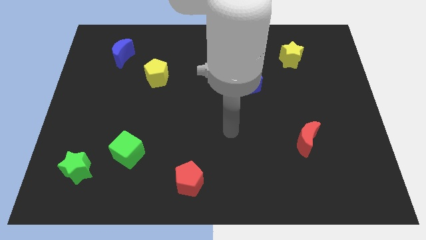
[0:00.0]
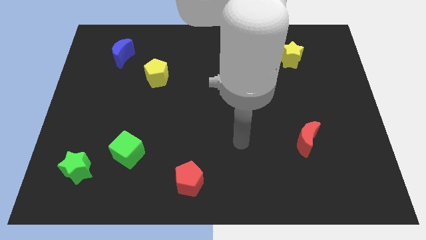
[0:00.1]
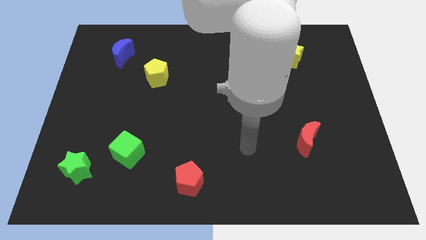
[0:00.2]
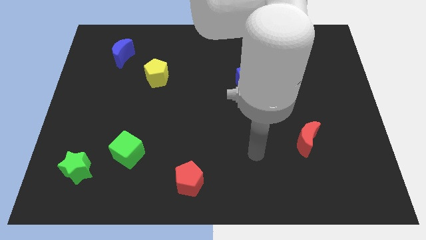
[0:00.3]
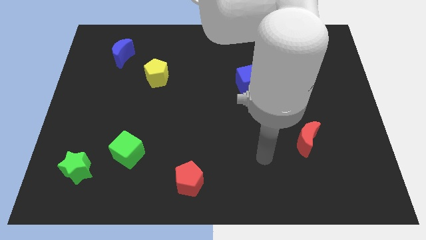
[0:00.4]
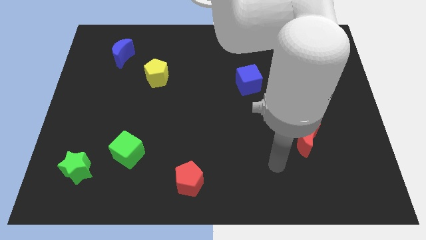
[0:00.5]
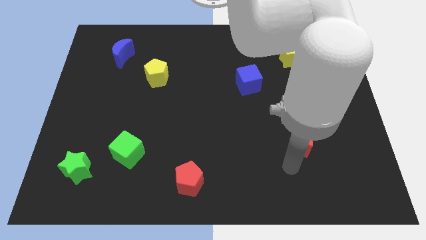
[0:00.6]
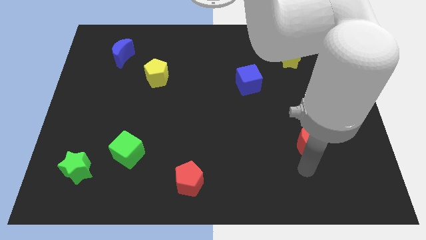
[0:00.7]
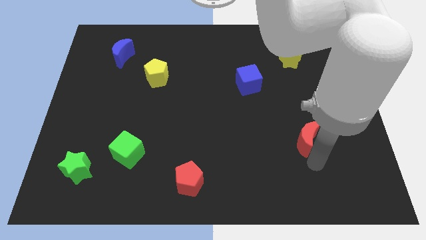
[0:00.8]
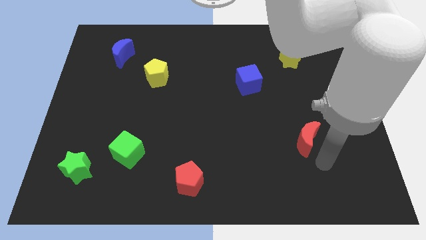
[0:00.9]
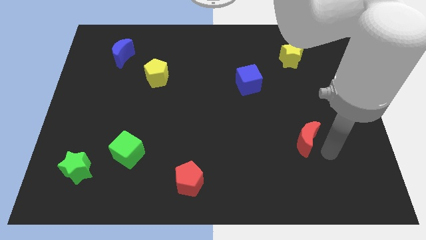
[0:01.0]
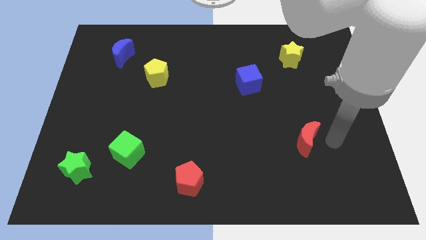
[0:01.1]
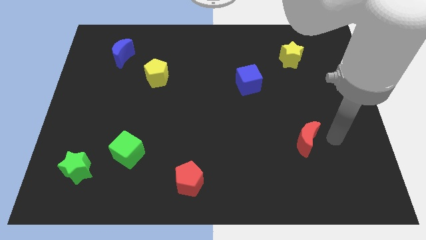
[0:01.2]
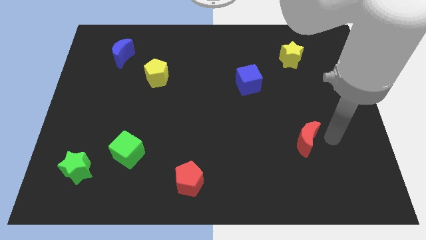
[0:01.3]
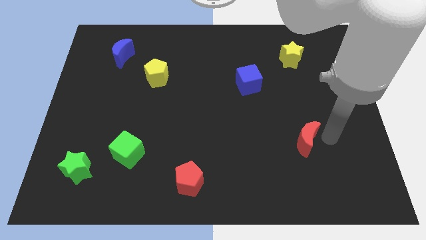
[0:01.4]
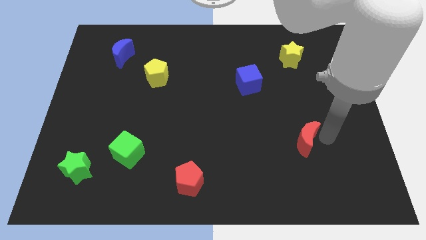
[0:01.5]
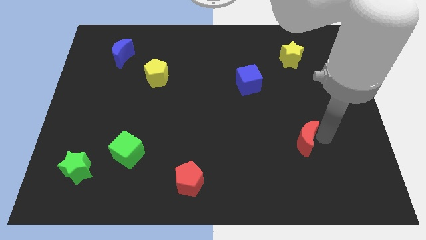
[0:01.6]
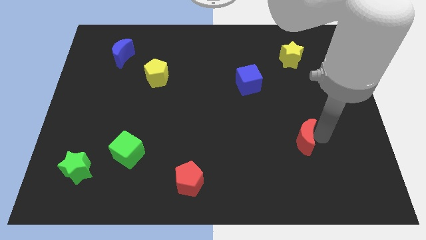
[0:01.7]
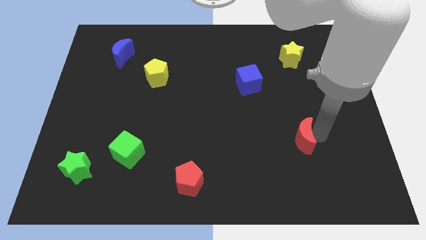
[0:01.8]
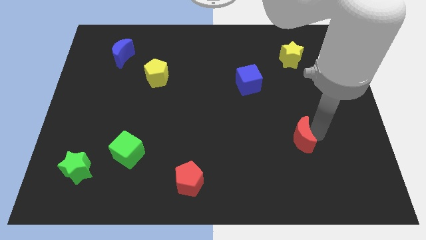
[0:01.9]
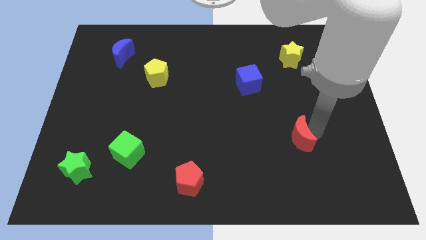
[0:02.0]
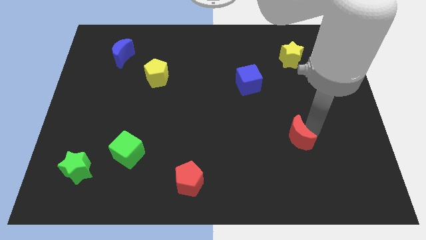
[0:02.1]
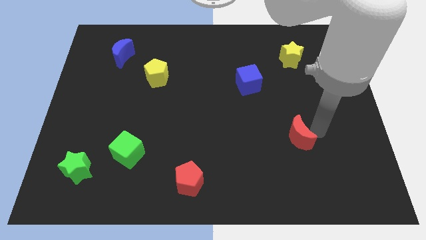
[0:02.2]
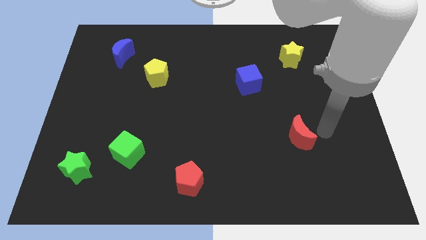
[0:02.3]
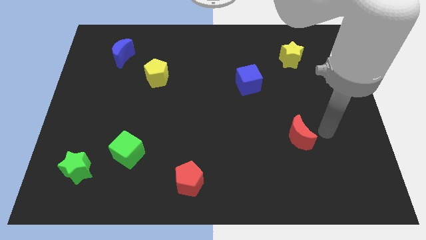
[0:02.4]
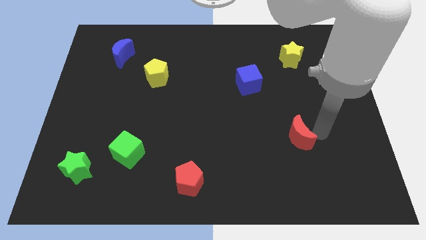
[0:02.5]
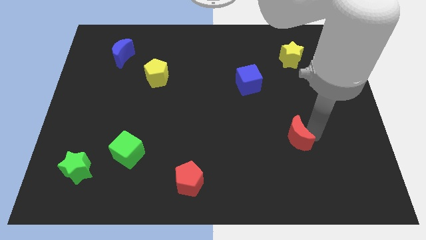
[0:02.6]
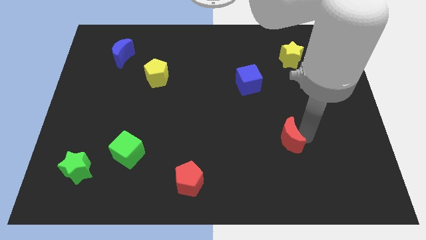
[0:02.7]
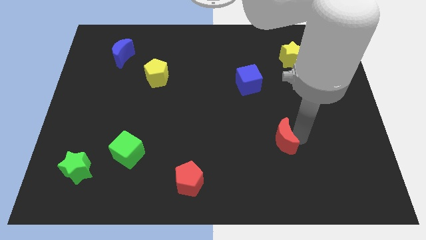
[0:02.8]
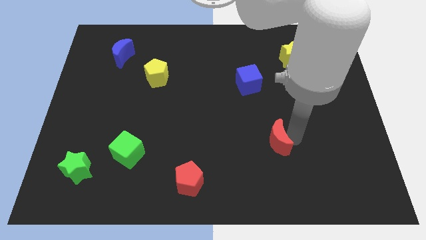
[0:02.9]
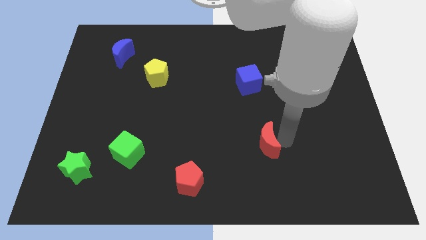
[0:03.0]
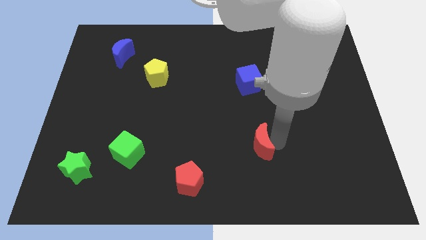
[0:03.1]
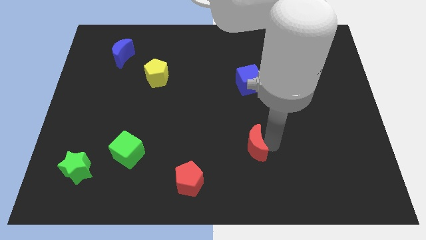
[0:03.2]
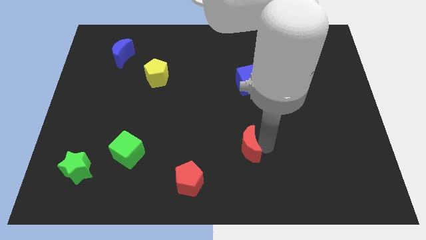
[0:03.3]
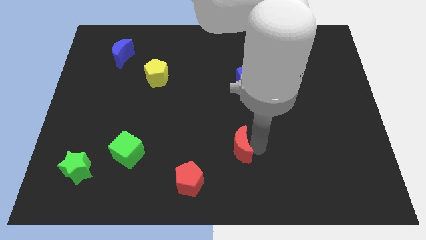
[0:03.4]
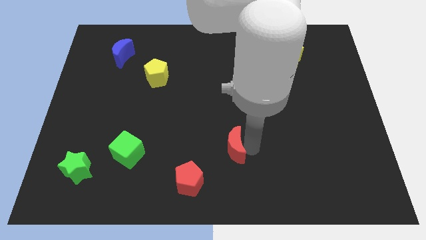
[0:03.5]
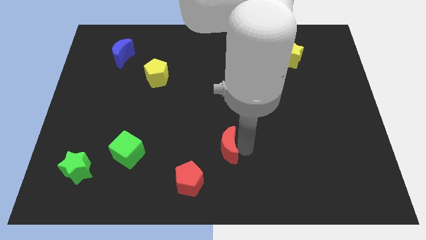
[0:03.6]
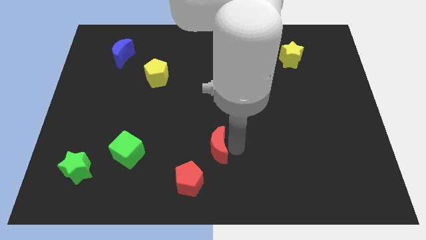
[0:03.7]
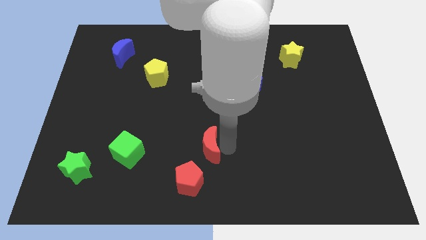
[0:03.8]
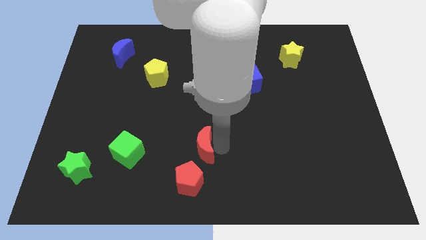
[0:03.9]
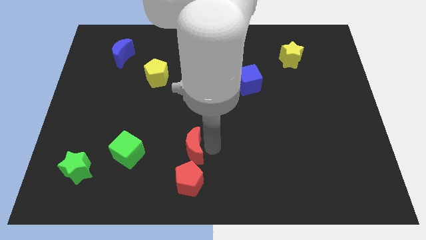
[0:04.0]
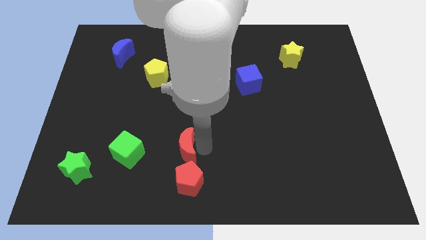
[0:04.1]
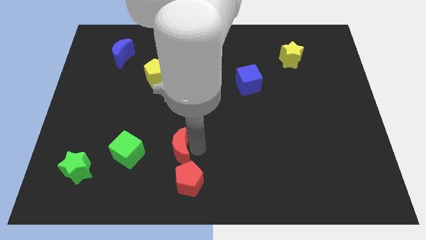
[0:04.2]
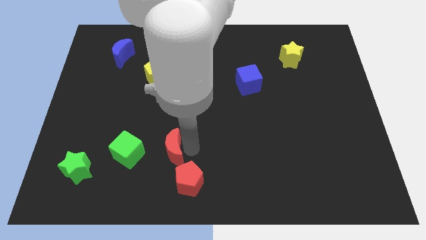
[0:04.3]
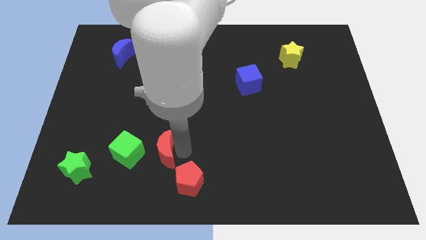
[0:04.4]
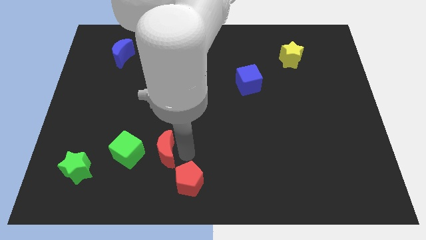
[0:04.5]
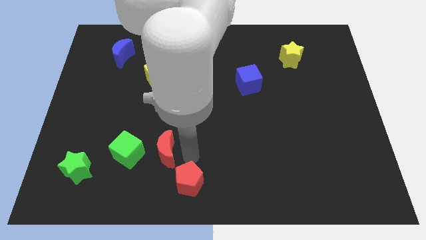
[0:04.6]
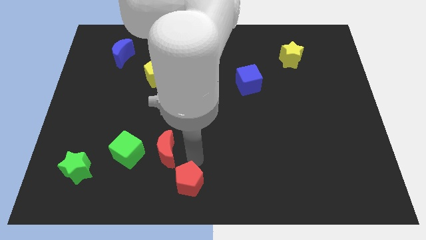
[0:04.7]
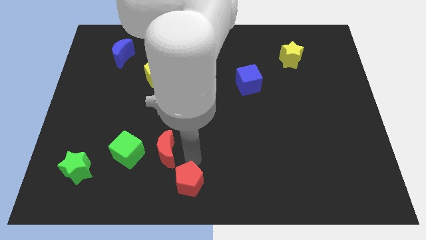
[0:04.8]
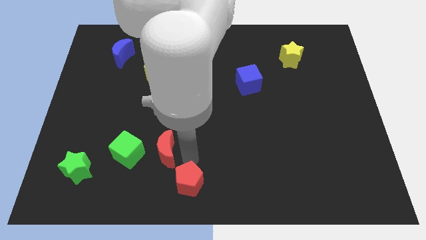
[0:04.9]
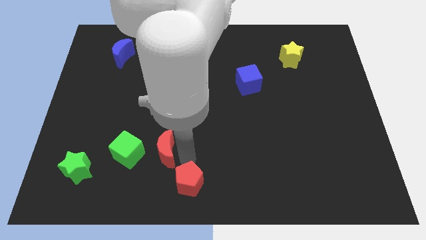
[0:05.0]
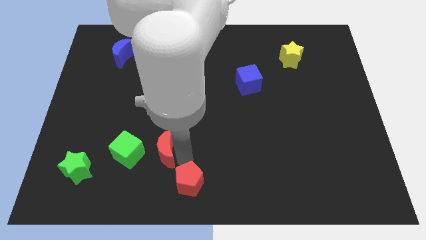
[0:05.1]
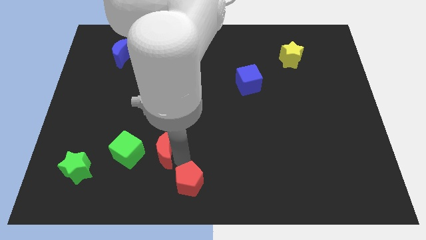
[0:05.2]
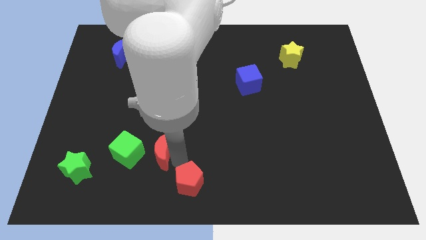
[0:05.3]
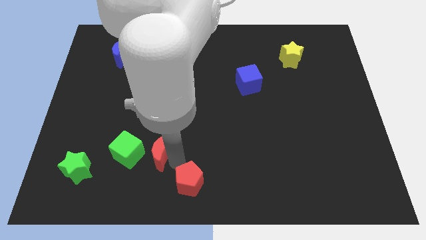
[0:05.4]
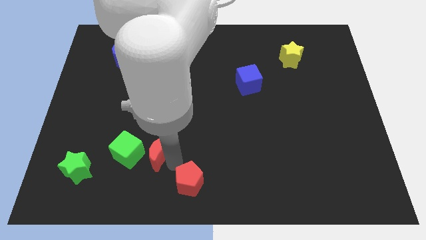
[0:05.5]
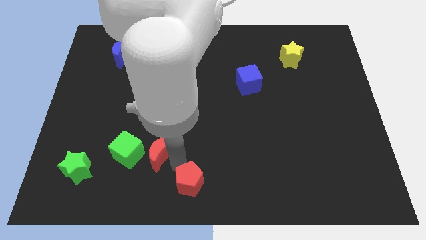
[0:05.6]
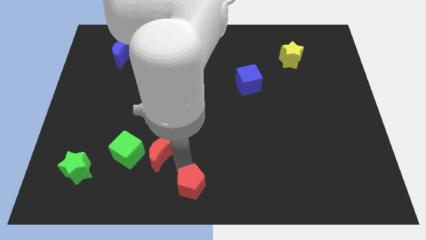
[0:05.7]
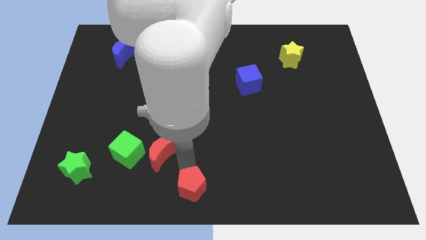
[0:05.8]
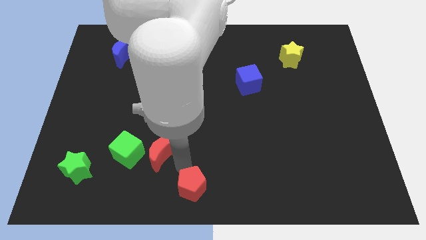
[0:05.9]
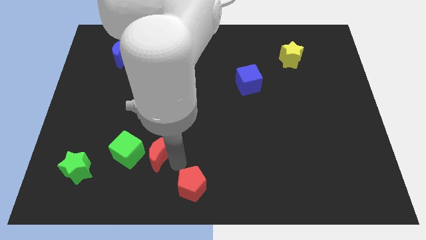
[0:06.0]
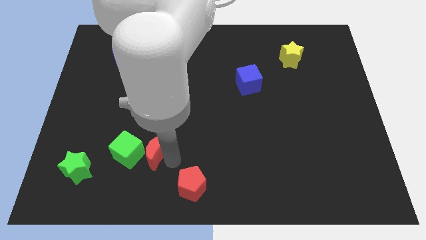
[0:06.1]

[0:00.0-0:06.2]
push the red moon next to the green cube

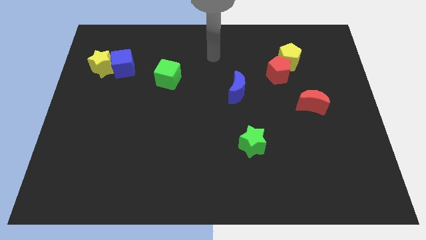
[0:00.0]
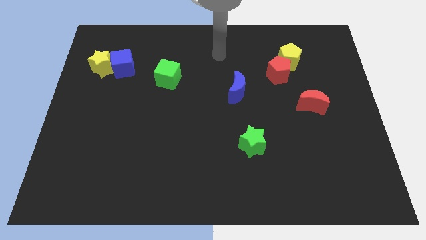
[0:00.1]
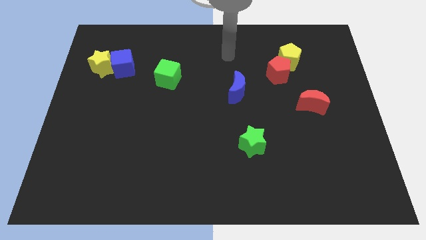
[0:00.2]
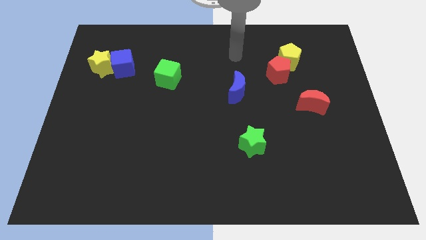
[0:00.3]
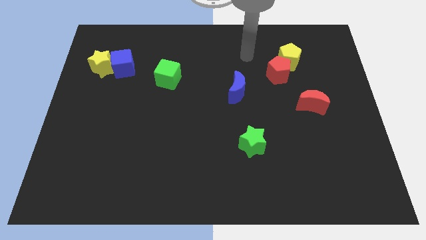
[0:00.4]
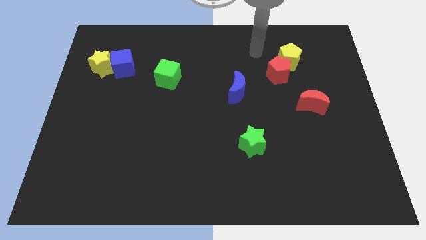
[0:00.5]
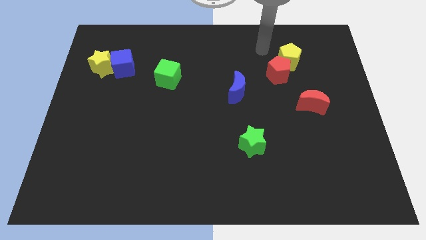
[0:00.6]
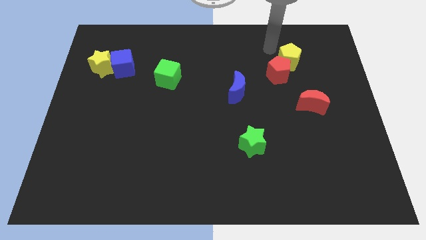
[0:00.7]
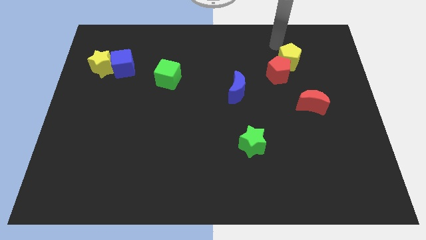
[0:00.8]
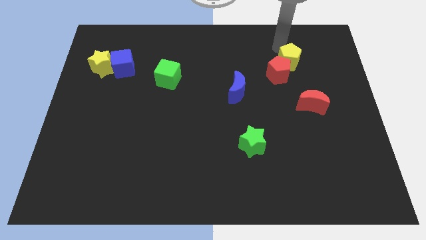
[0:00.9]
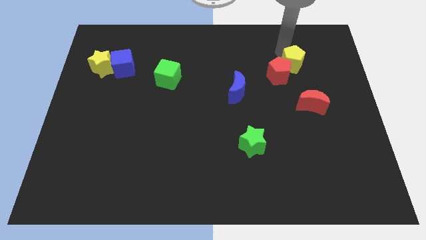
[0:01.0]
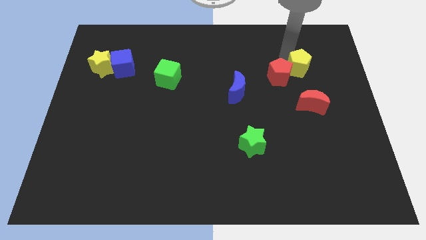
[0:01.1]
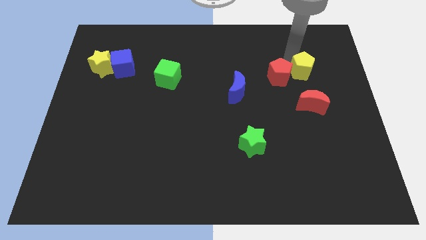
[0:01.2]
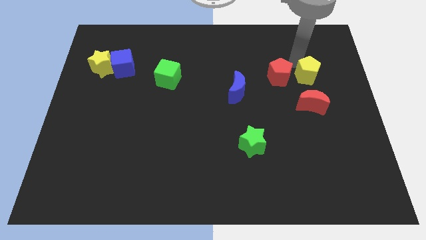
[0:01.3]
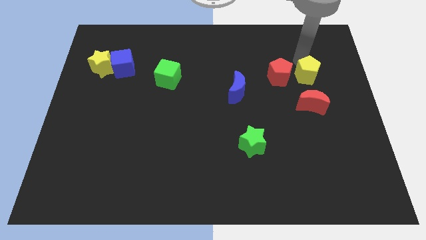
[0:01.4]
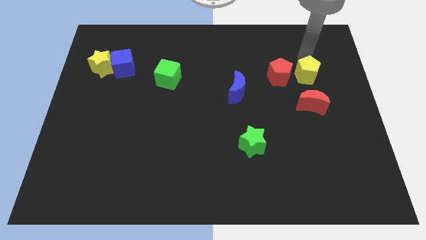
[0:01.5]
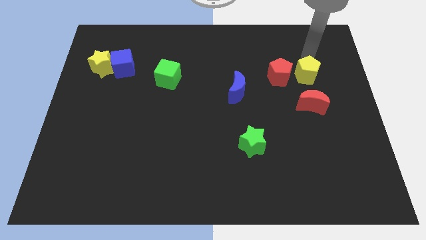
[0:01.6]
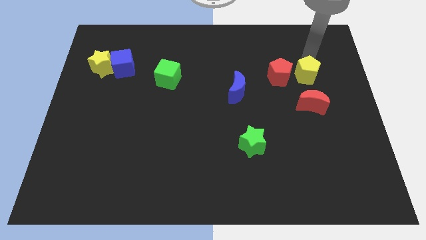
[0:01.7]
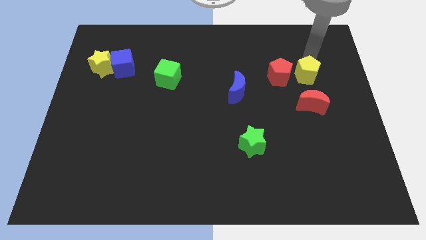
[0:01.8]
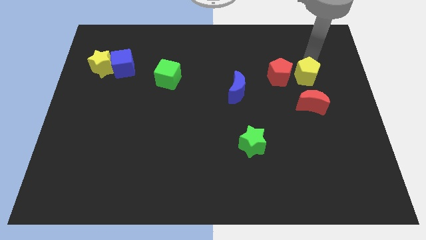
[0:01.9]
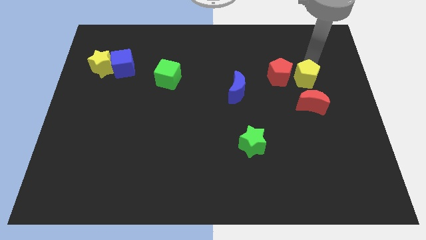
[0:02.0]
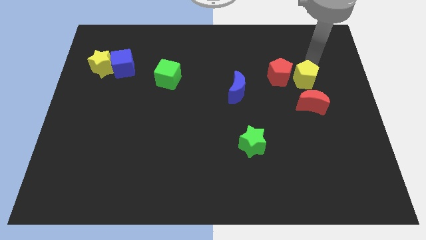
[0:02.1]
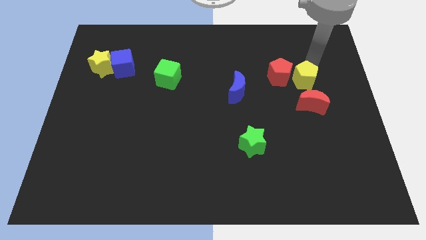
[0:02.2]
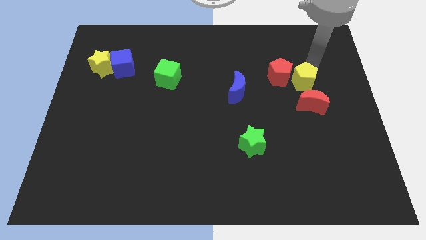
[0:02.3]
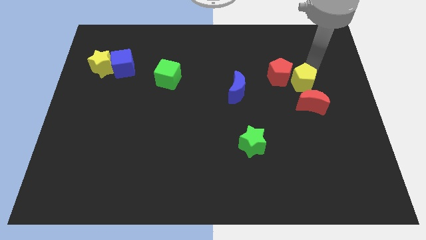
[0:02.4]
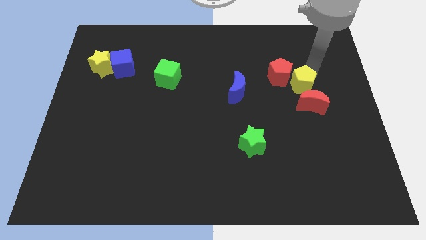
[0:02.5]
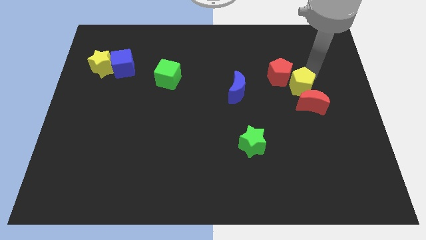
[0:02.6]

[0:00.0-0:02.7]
move the yellow pentagon next to the red moon
